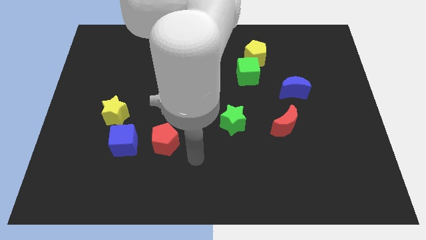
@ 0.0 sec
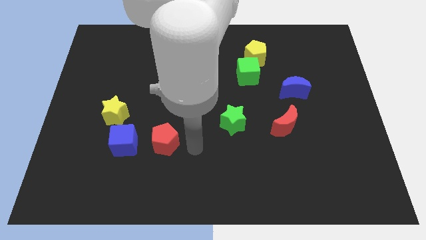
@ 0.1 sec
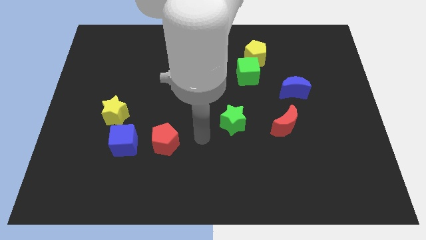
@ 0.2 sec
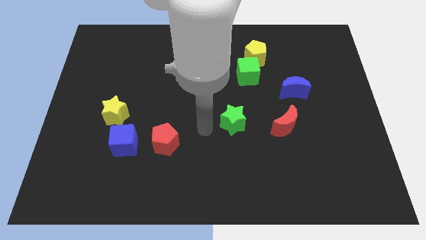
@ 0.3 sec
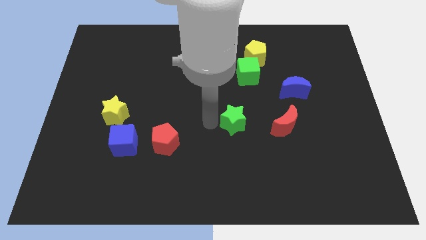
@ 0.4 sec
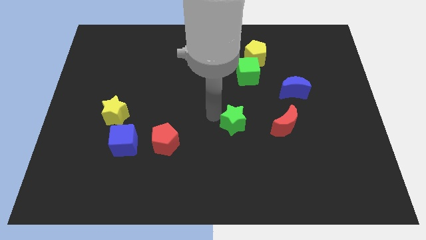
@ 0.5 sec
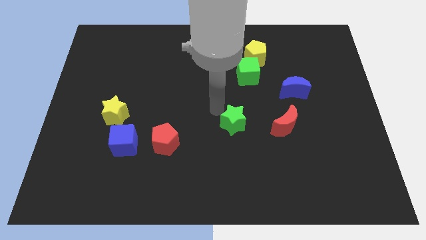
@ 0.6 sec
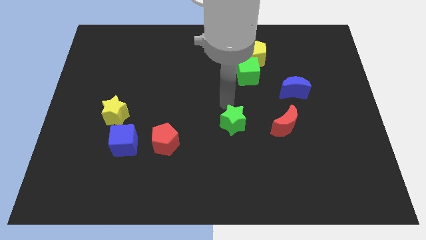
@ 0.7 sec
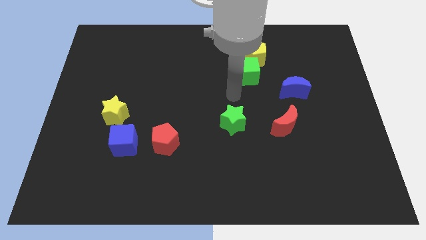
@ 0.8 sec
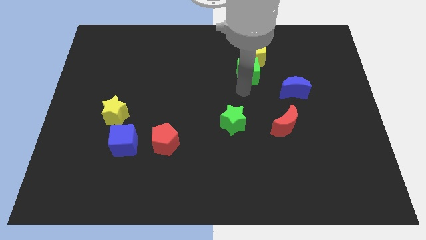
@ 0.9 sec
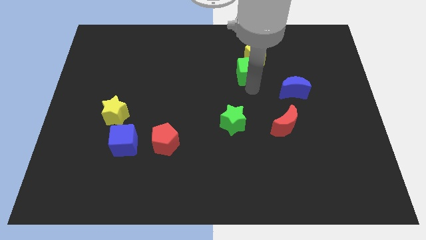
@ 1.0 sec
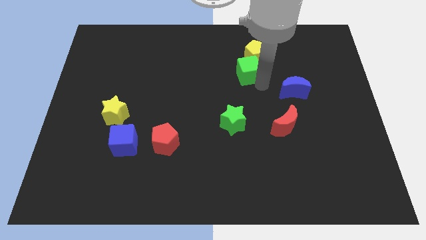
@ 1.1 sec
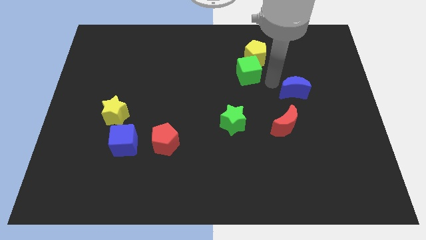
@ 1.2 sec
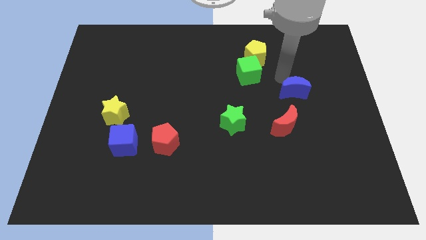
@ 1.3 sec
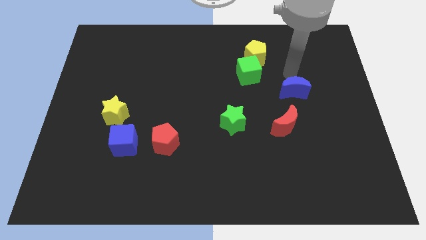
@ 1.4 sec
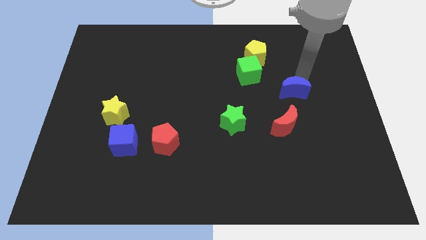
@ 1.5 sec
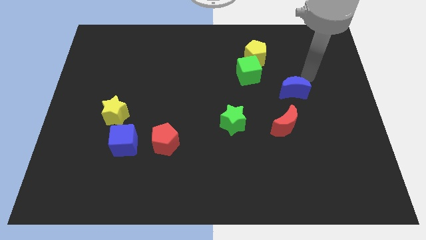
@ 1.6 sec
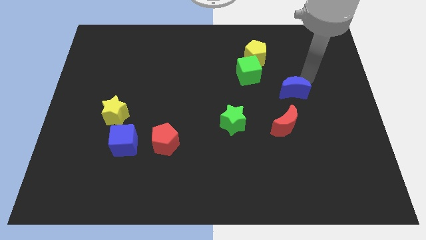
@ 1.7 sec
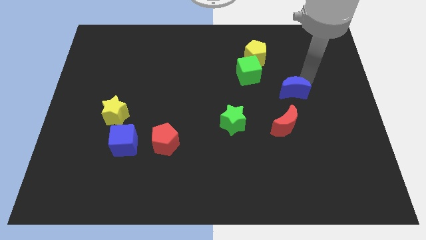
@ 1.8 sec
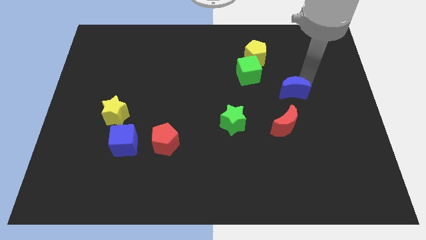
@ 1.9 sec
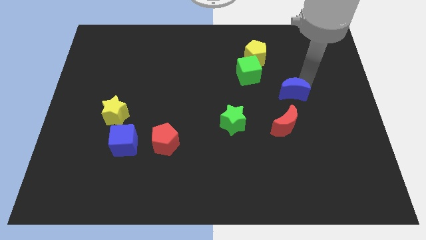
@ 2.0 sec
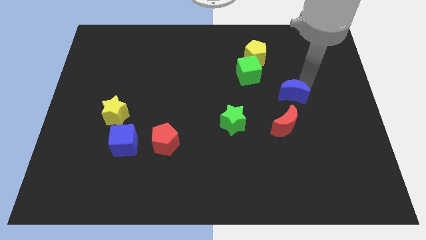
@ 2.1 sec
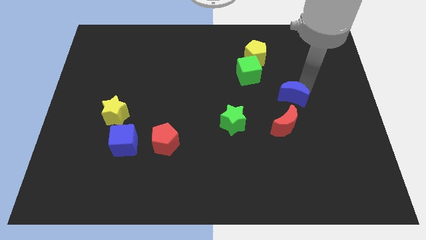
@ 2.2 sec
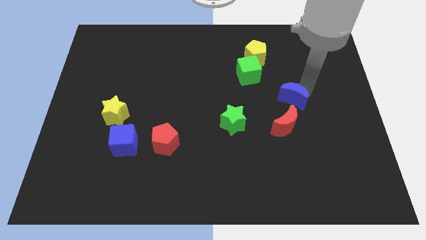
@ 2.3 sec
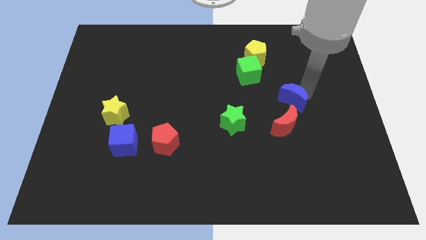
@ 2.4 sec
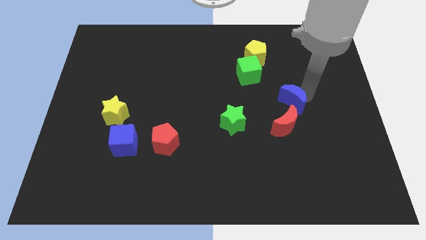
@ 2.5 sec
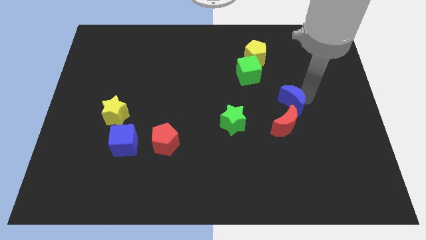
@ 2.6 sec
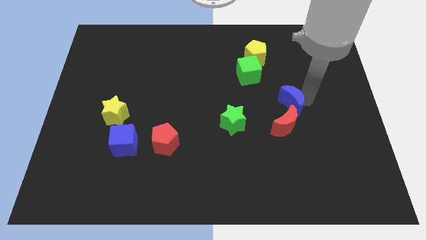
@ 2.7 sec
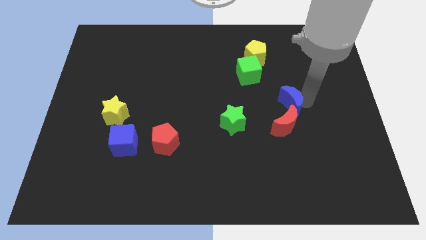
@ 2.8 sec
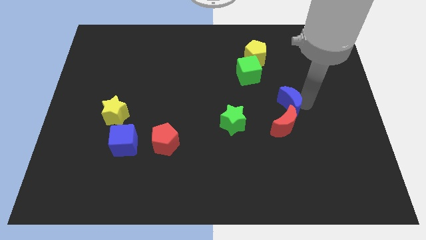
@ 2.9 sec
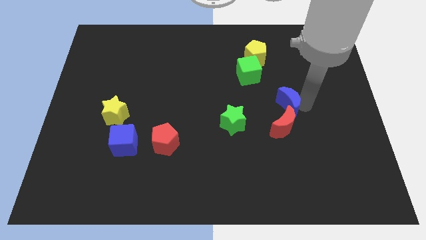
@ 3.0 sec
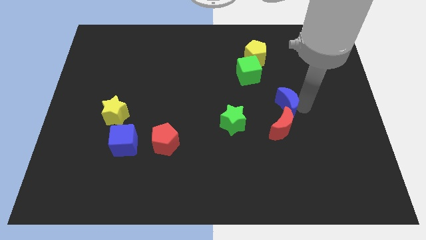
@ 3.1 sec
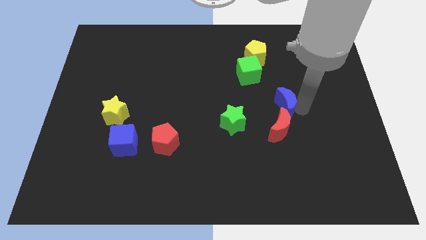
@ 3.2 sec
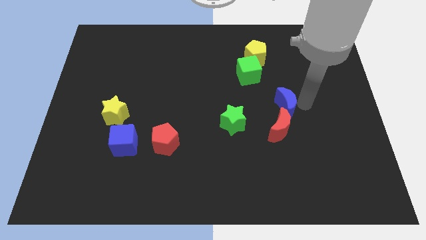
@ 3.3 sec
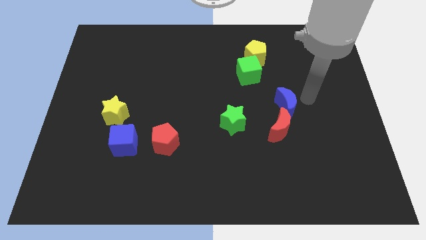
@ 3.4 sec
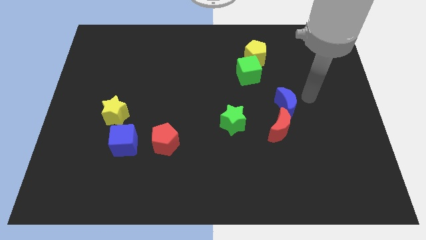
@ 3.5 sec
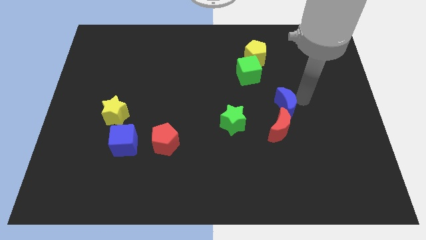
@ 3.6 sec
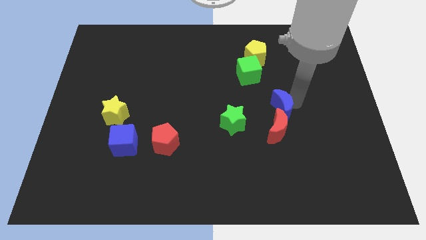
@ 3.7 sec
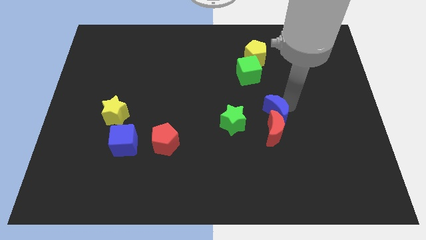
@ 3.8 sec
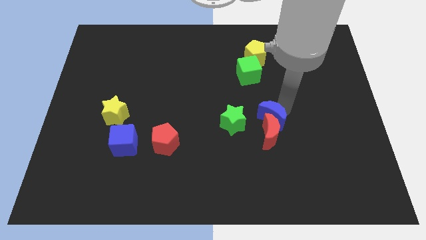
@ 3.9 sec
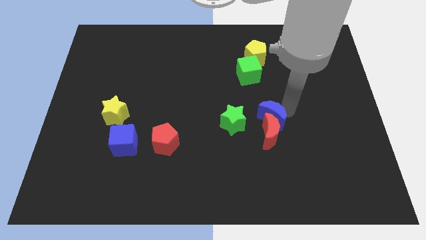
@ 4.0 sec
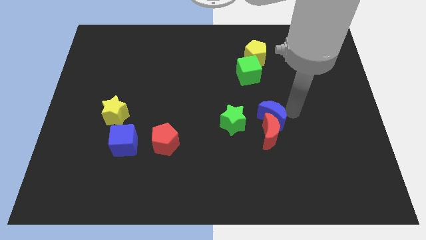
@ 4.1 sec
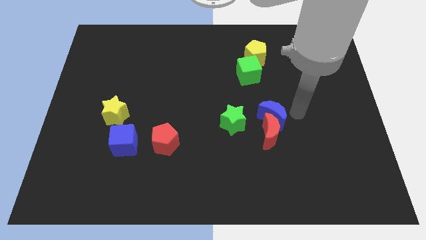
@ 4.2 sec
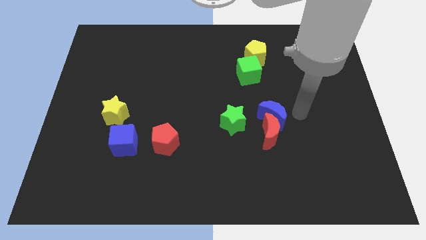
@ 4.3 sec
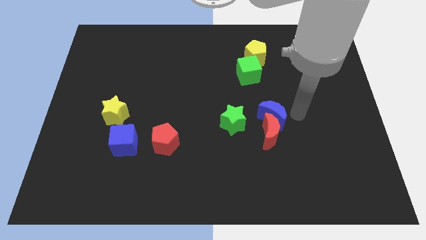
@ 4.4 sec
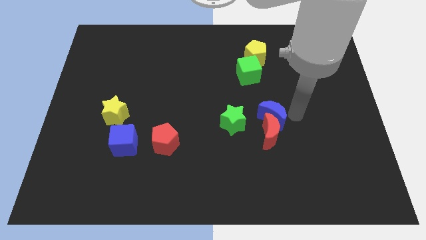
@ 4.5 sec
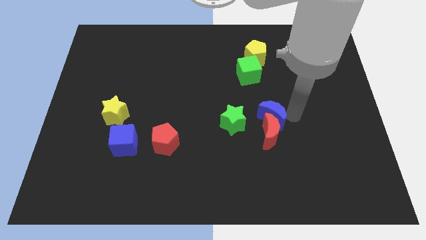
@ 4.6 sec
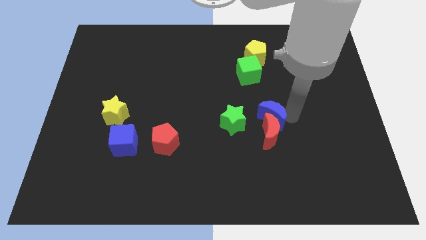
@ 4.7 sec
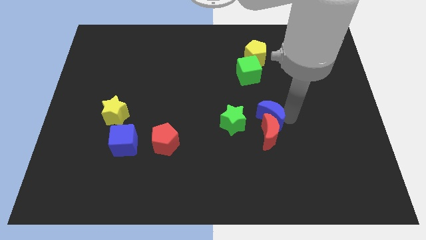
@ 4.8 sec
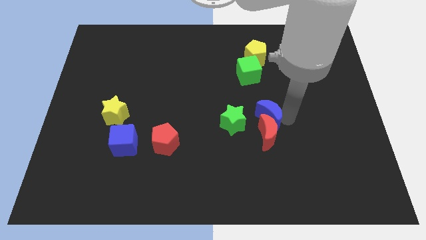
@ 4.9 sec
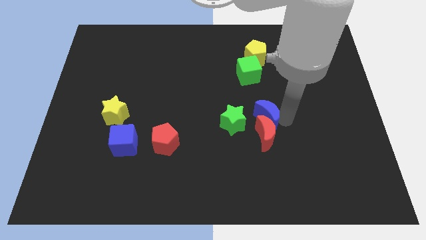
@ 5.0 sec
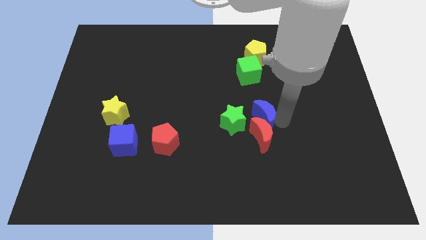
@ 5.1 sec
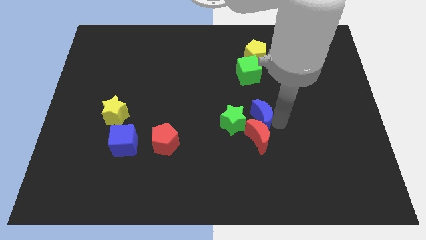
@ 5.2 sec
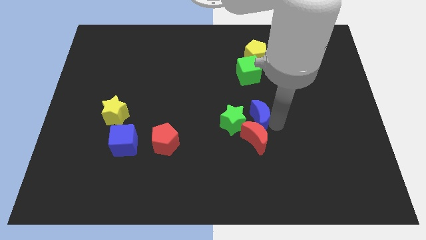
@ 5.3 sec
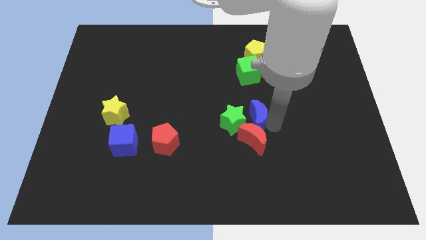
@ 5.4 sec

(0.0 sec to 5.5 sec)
put the blue moon to the green star

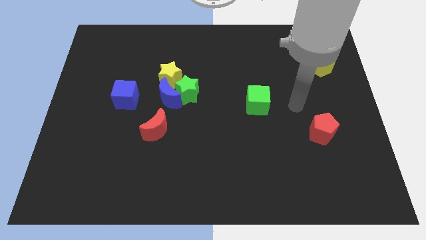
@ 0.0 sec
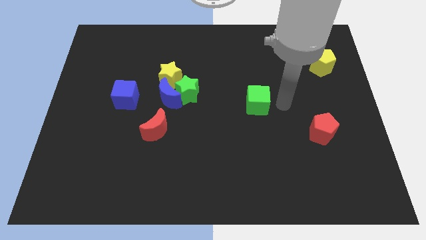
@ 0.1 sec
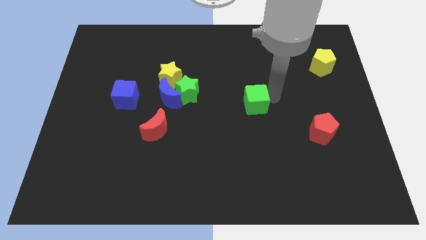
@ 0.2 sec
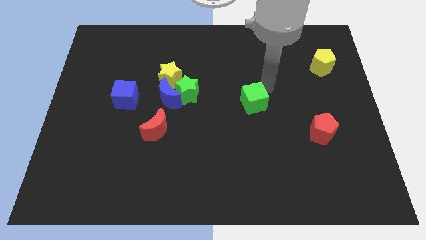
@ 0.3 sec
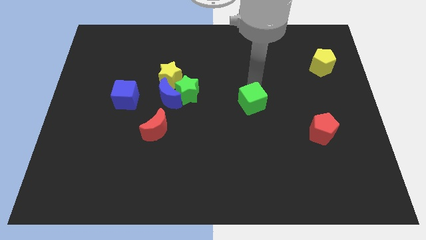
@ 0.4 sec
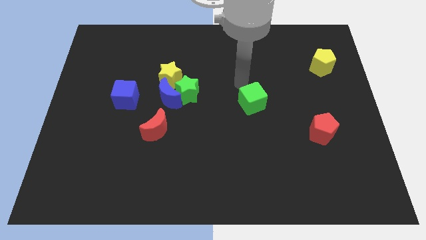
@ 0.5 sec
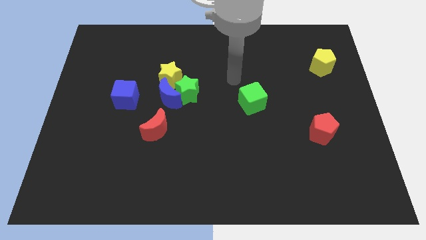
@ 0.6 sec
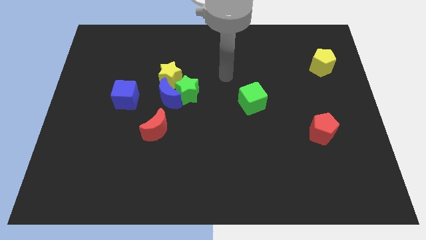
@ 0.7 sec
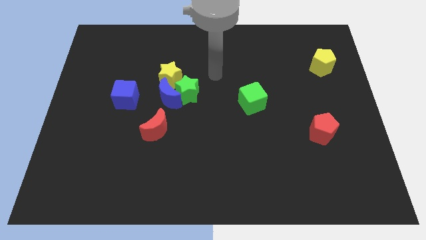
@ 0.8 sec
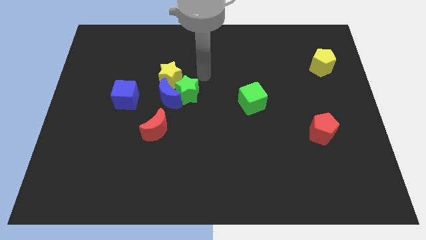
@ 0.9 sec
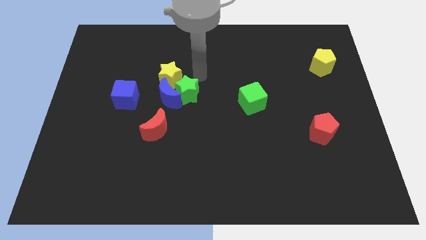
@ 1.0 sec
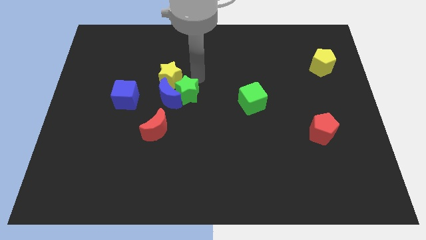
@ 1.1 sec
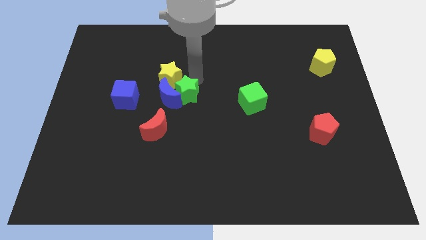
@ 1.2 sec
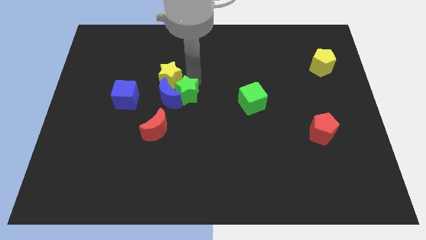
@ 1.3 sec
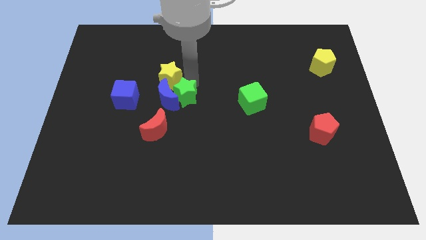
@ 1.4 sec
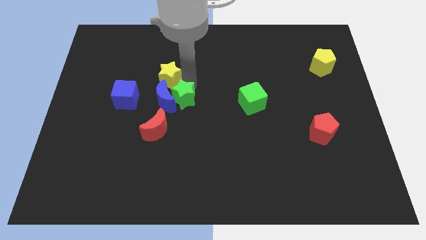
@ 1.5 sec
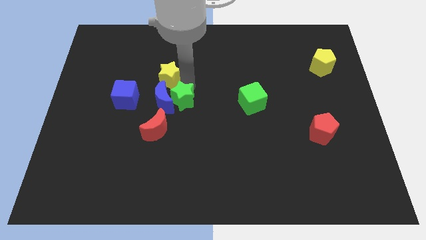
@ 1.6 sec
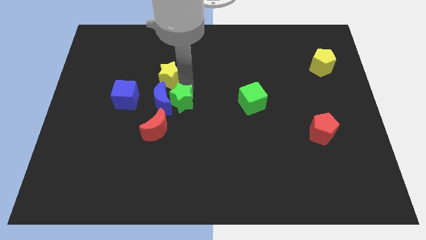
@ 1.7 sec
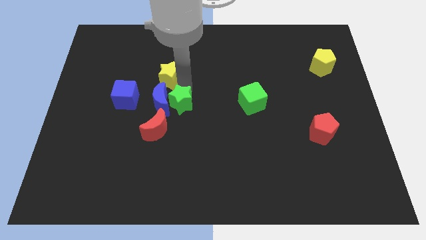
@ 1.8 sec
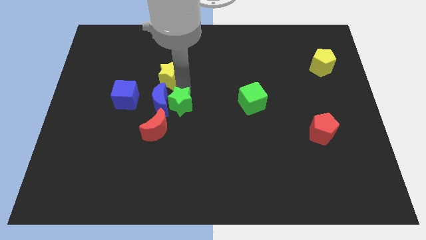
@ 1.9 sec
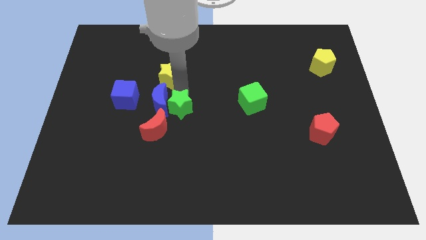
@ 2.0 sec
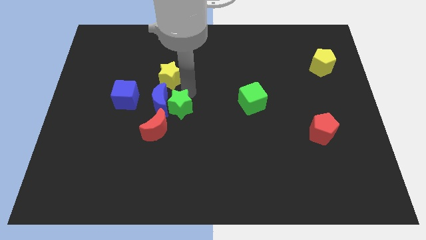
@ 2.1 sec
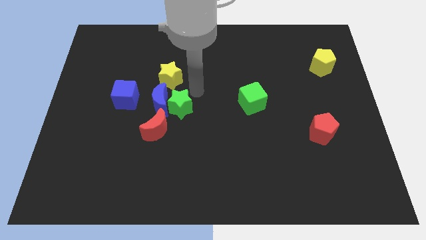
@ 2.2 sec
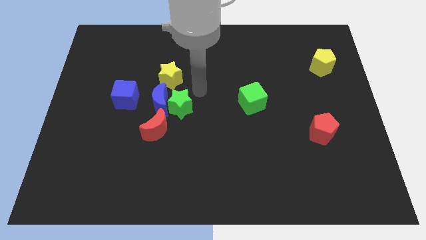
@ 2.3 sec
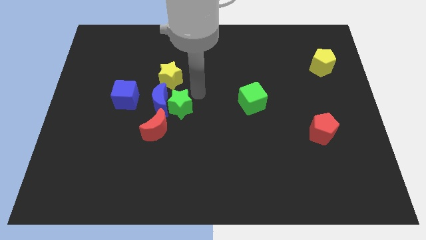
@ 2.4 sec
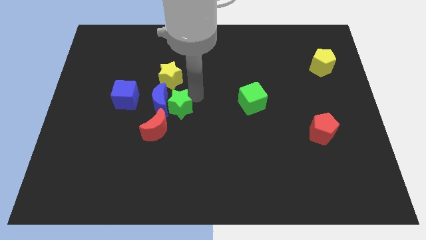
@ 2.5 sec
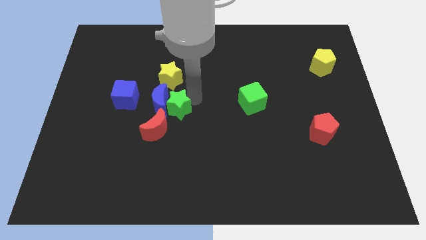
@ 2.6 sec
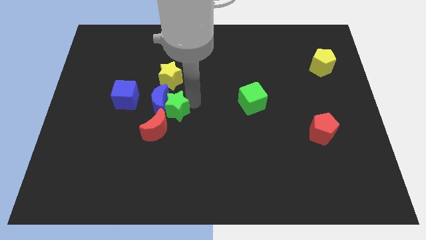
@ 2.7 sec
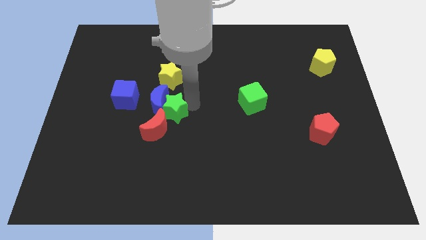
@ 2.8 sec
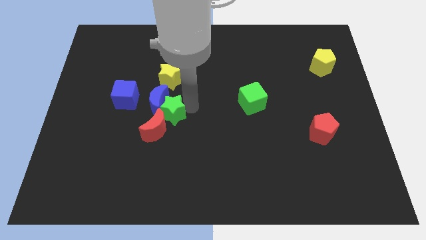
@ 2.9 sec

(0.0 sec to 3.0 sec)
push the green star towards the red moon
